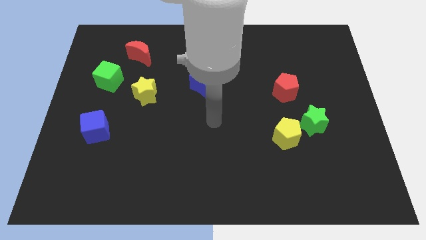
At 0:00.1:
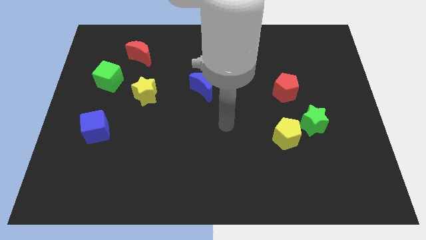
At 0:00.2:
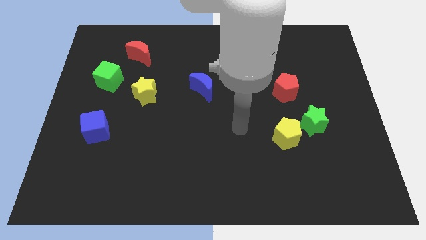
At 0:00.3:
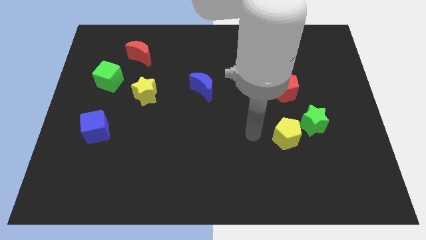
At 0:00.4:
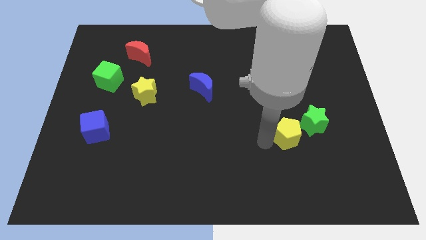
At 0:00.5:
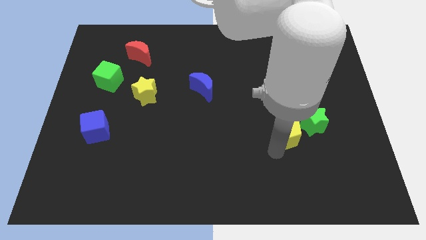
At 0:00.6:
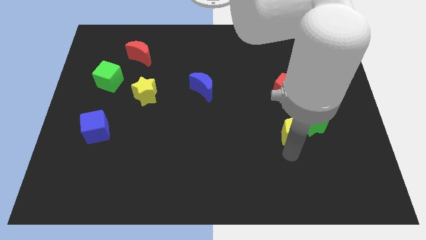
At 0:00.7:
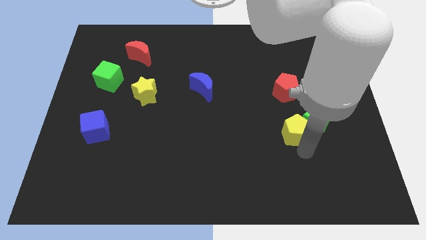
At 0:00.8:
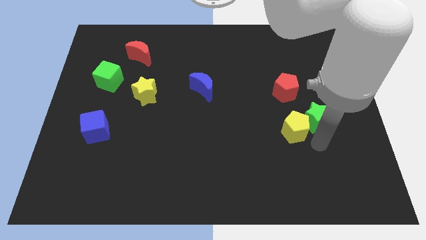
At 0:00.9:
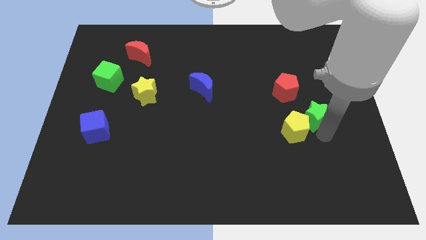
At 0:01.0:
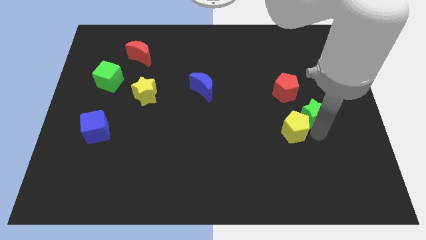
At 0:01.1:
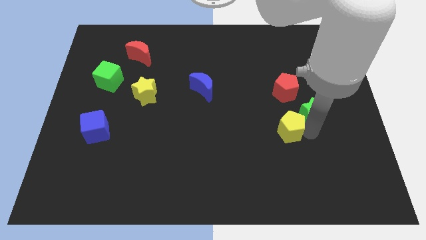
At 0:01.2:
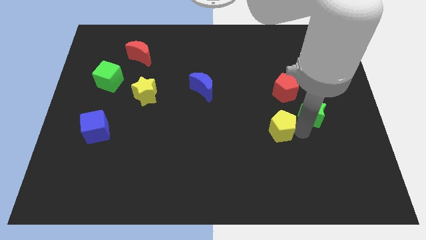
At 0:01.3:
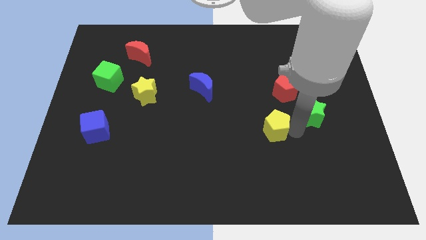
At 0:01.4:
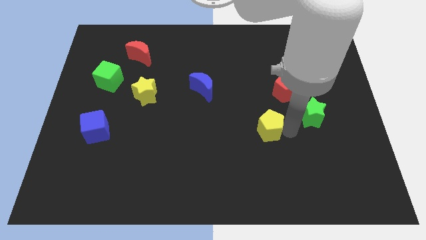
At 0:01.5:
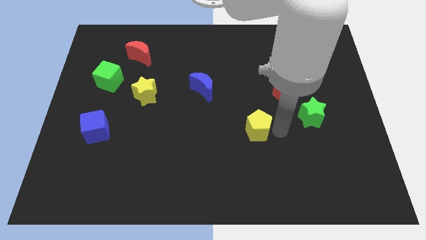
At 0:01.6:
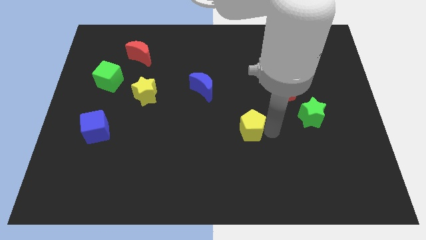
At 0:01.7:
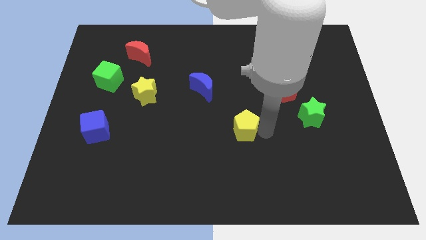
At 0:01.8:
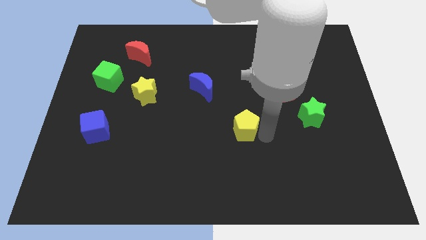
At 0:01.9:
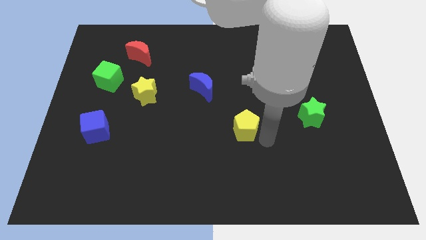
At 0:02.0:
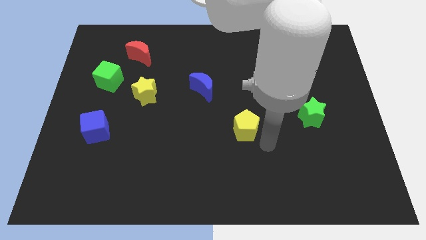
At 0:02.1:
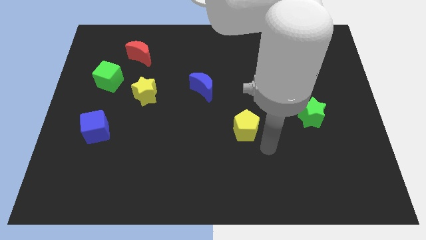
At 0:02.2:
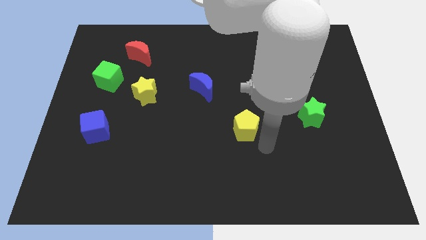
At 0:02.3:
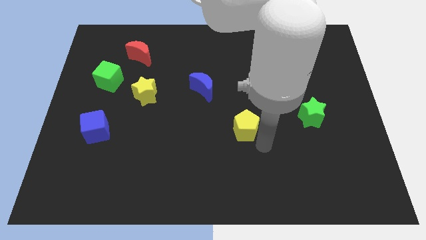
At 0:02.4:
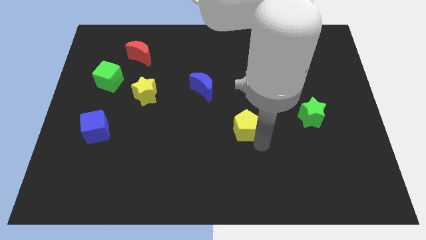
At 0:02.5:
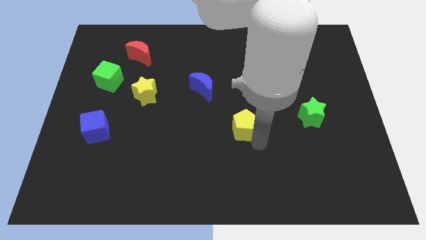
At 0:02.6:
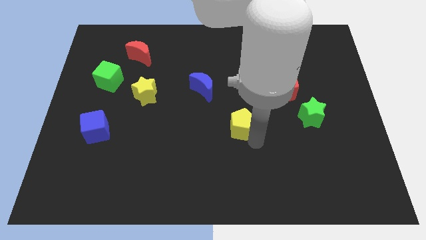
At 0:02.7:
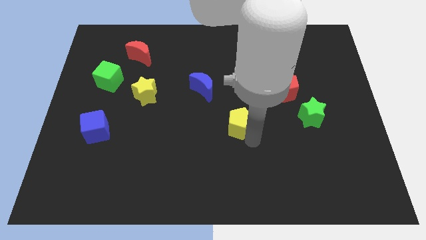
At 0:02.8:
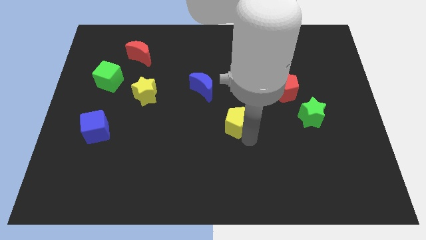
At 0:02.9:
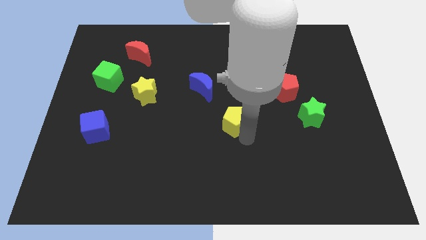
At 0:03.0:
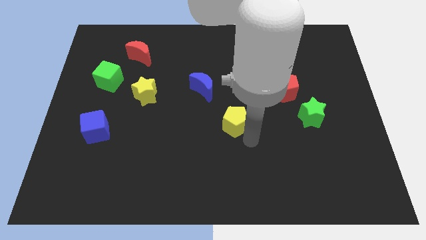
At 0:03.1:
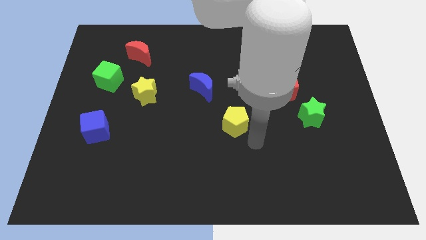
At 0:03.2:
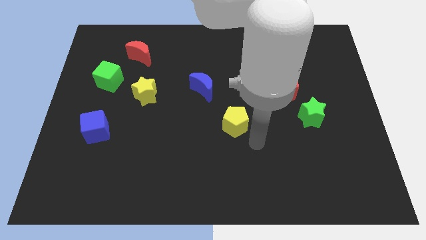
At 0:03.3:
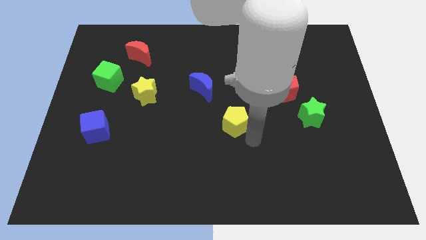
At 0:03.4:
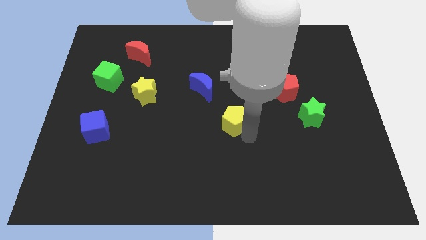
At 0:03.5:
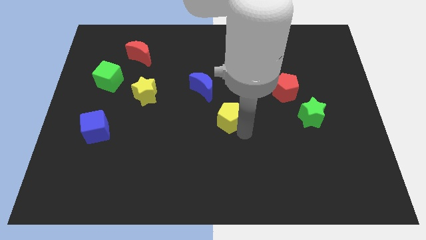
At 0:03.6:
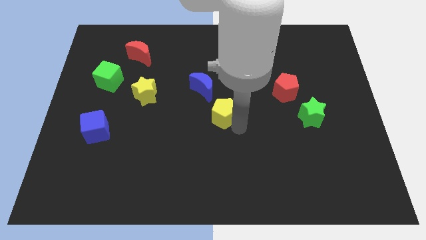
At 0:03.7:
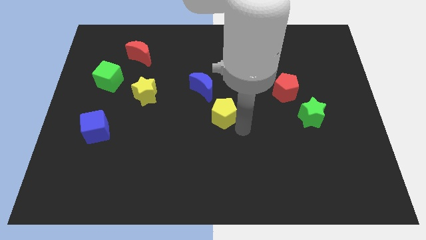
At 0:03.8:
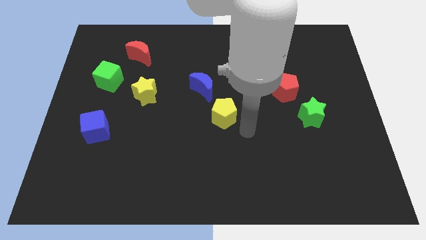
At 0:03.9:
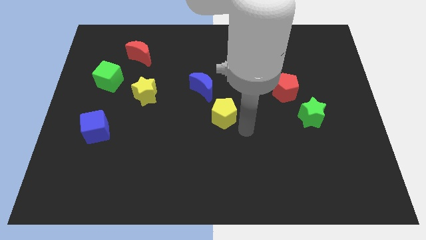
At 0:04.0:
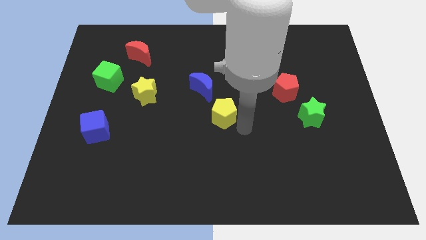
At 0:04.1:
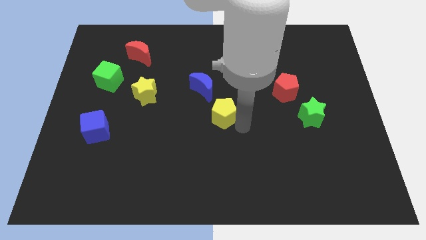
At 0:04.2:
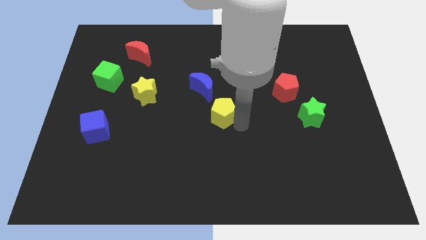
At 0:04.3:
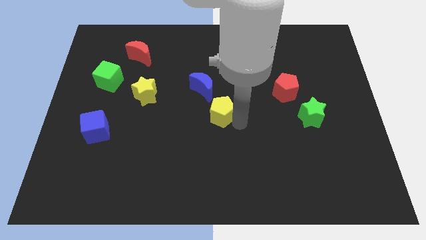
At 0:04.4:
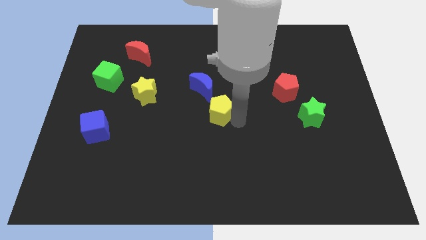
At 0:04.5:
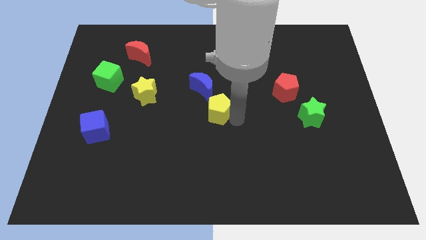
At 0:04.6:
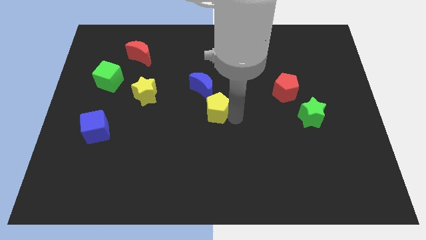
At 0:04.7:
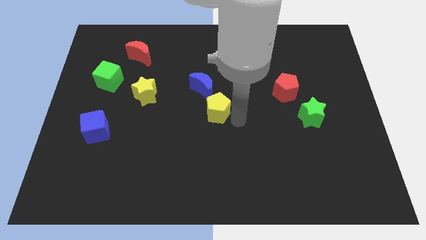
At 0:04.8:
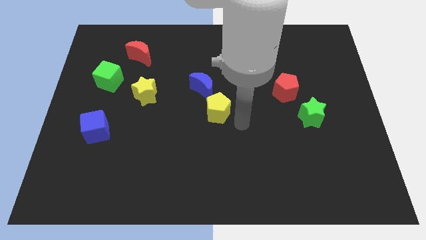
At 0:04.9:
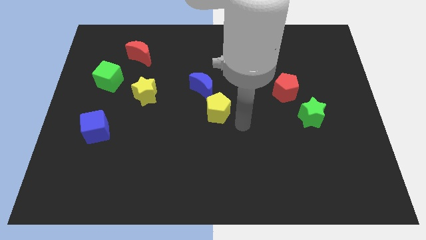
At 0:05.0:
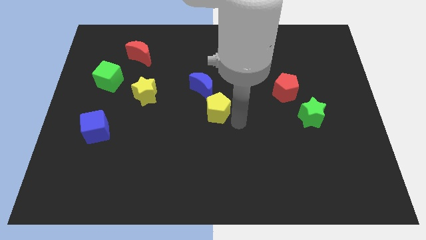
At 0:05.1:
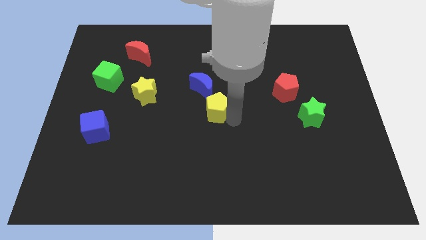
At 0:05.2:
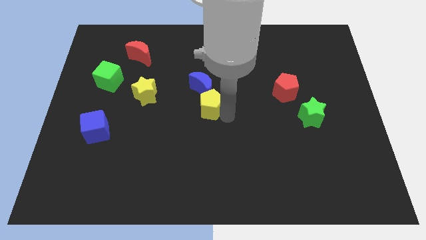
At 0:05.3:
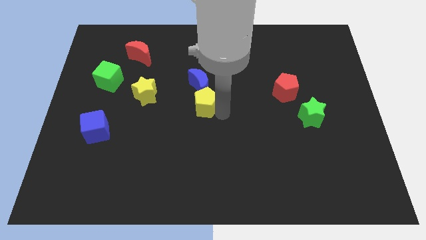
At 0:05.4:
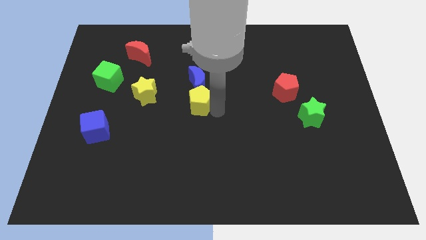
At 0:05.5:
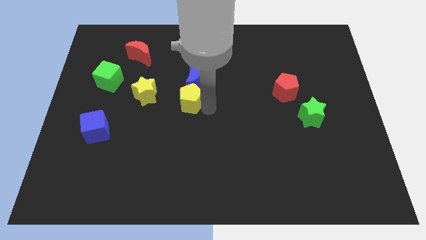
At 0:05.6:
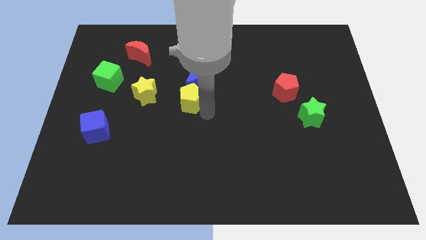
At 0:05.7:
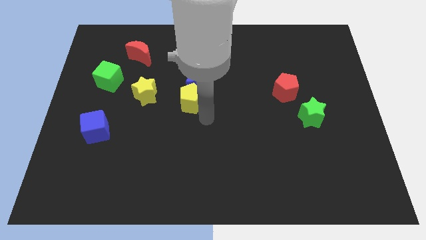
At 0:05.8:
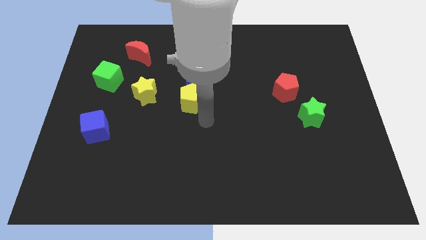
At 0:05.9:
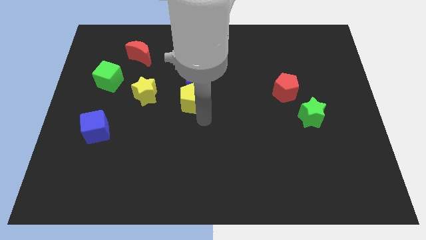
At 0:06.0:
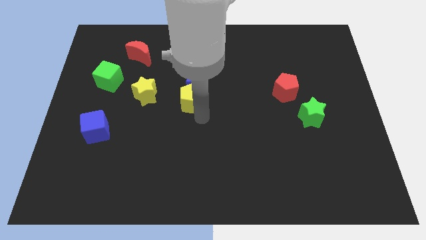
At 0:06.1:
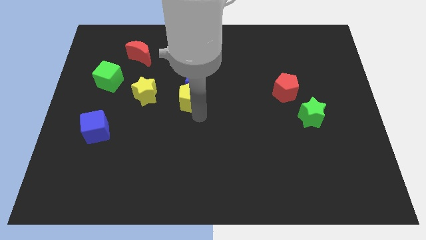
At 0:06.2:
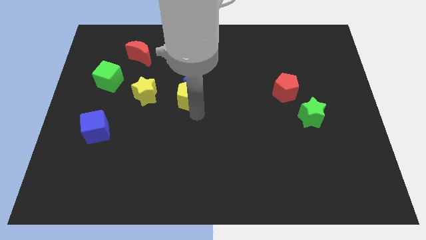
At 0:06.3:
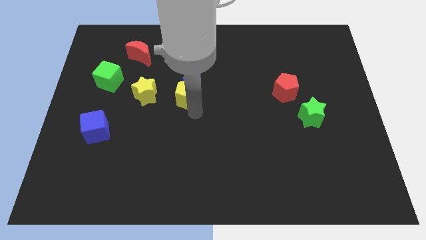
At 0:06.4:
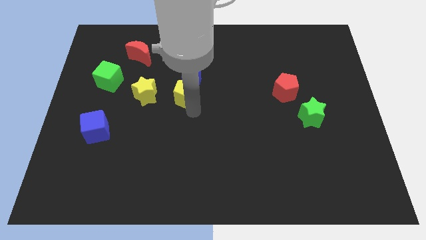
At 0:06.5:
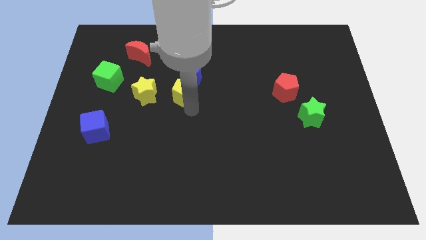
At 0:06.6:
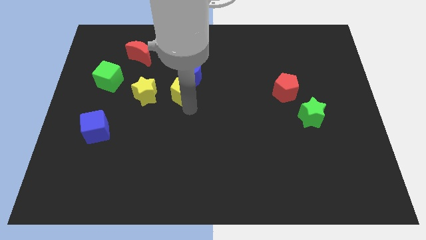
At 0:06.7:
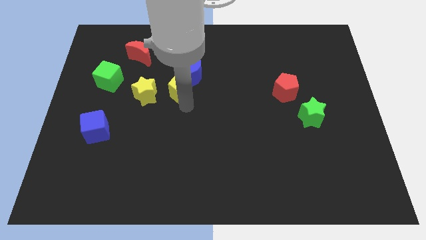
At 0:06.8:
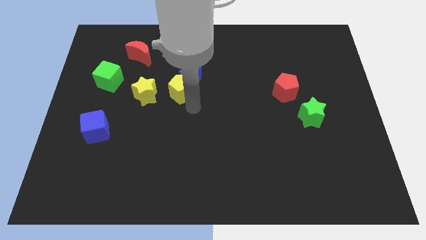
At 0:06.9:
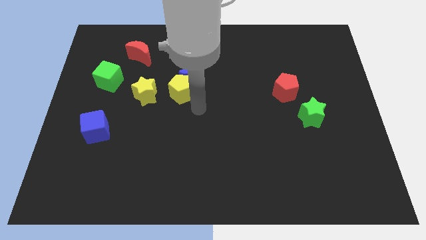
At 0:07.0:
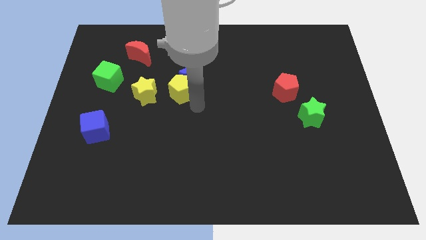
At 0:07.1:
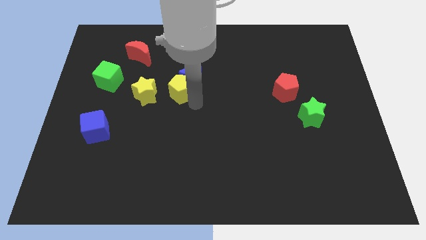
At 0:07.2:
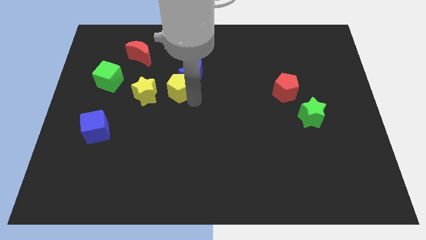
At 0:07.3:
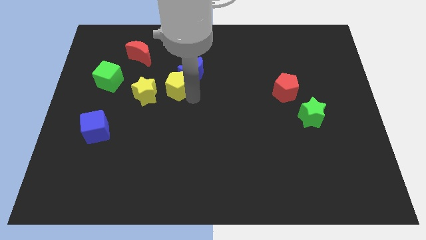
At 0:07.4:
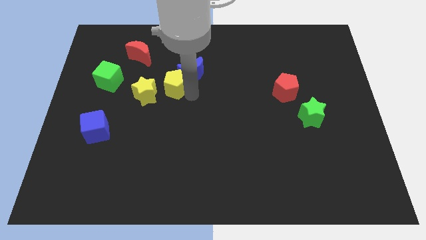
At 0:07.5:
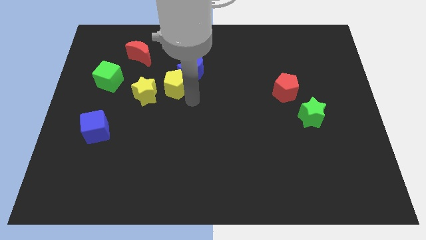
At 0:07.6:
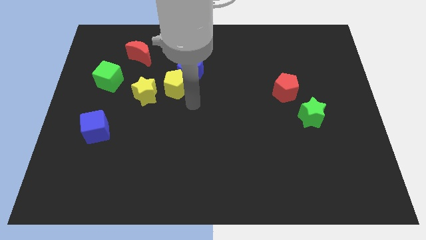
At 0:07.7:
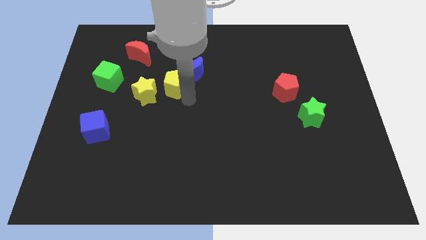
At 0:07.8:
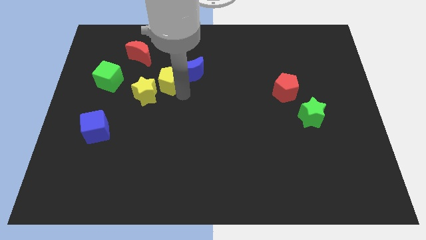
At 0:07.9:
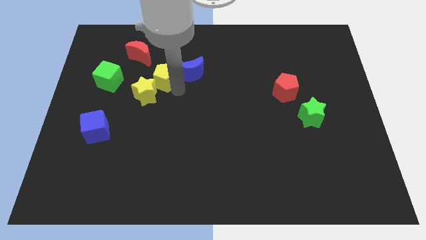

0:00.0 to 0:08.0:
slide the yellow pentagon to the bottom right of the red moon
